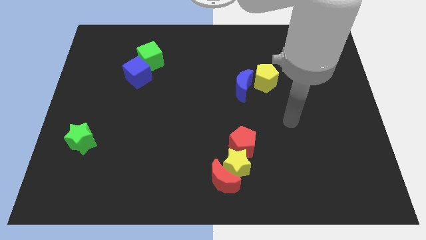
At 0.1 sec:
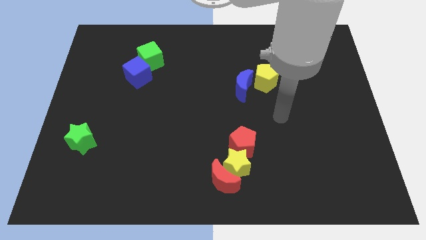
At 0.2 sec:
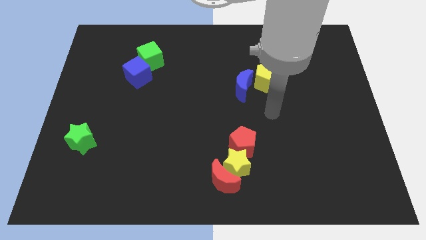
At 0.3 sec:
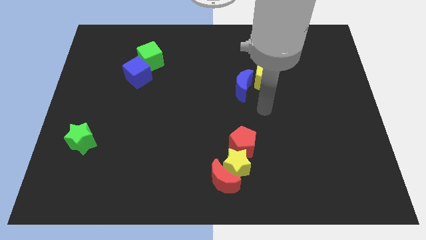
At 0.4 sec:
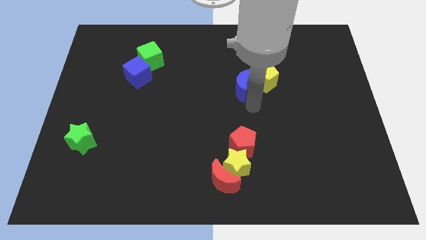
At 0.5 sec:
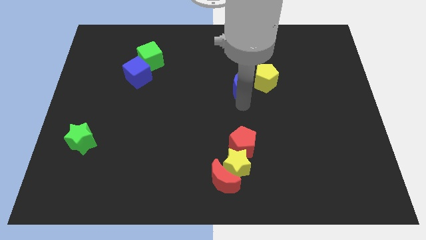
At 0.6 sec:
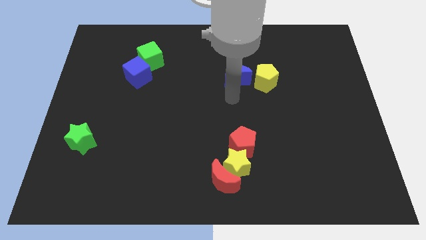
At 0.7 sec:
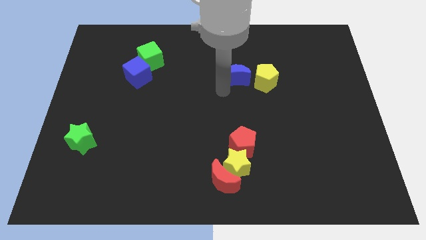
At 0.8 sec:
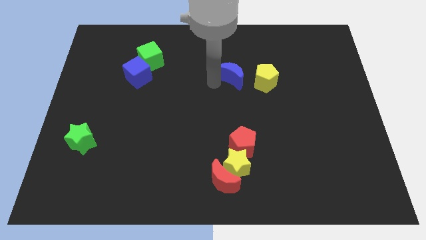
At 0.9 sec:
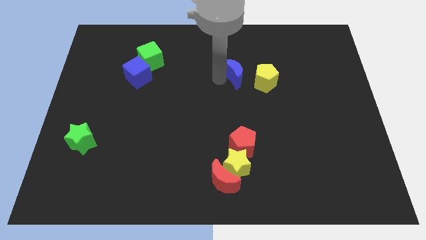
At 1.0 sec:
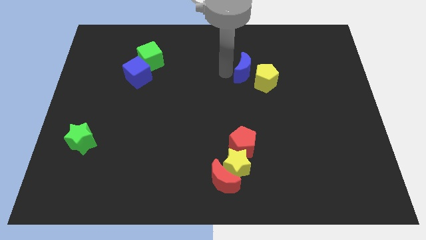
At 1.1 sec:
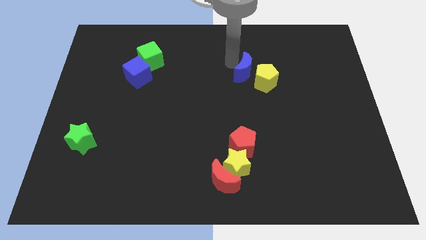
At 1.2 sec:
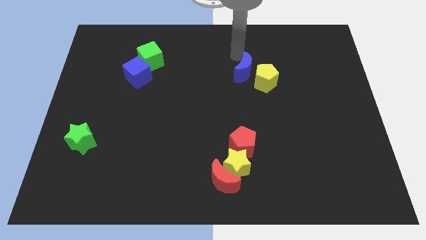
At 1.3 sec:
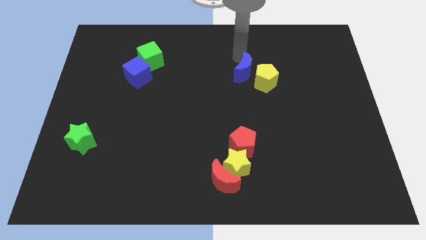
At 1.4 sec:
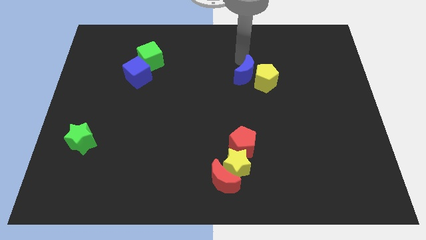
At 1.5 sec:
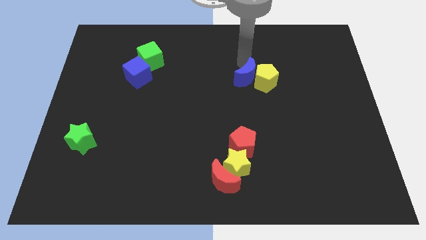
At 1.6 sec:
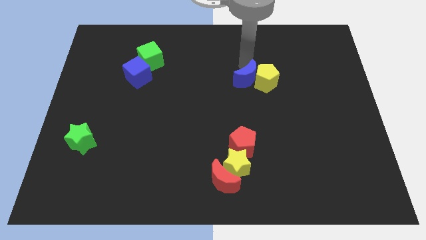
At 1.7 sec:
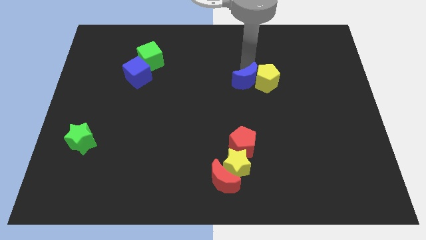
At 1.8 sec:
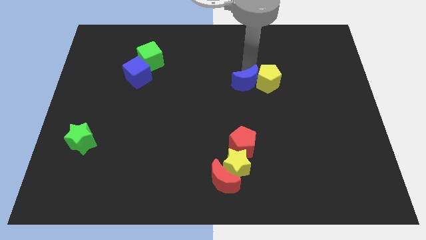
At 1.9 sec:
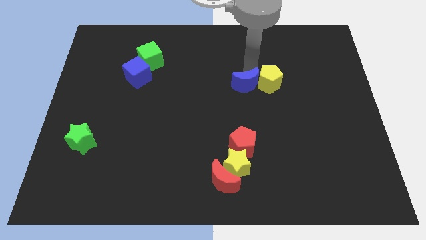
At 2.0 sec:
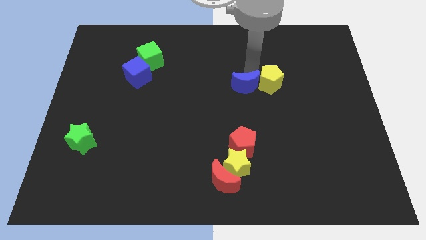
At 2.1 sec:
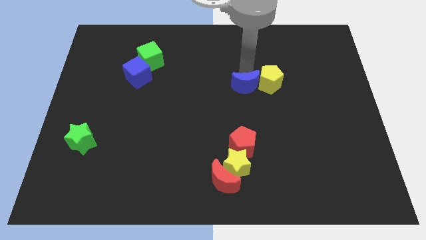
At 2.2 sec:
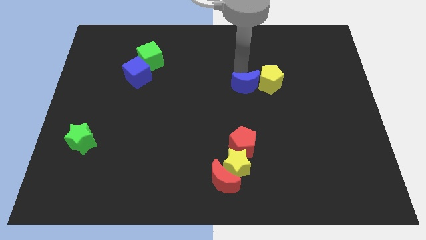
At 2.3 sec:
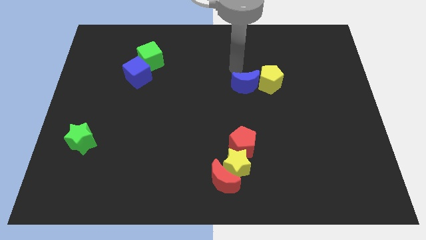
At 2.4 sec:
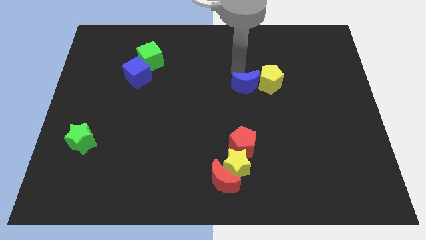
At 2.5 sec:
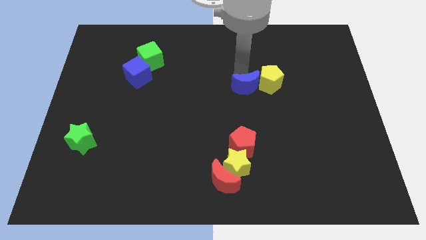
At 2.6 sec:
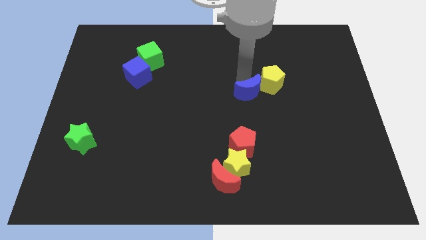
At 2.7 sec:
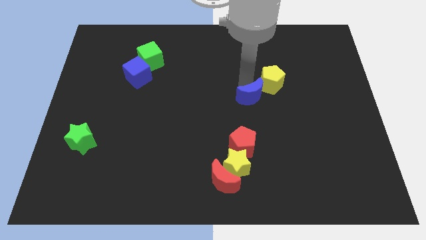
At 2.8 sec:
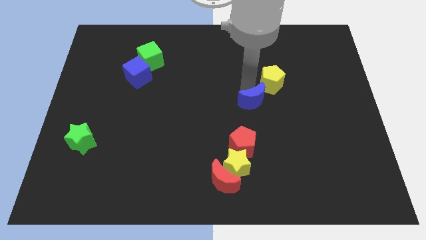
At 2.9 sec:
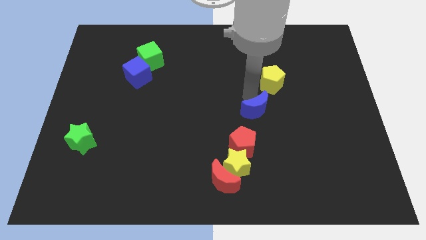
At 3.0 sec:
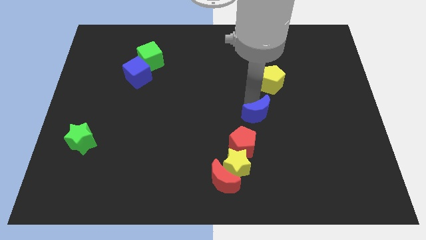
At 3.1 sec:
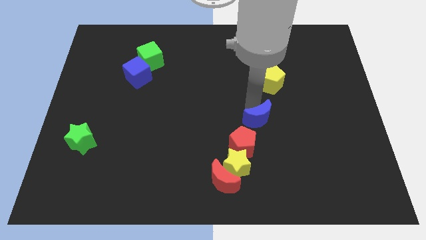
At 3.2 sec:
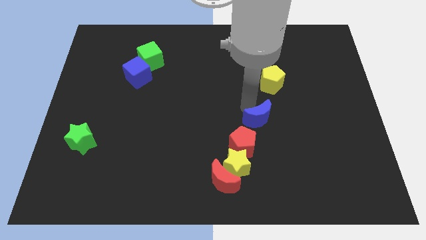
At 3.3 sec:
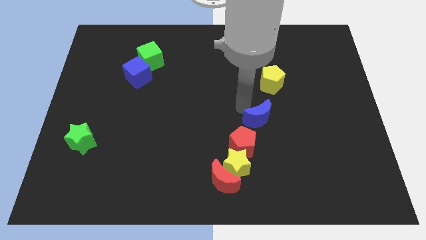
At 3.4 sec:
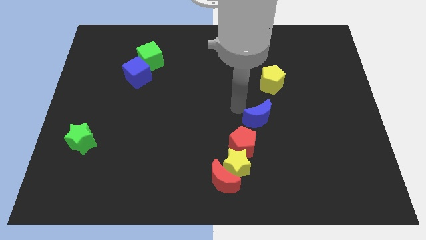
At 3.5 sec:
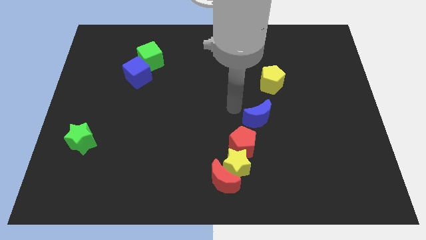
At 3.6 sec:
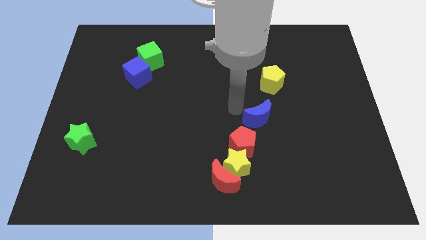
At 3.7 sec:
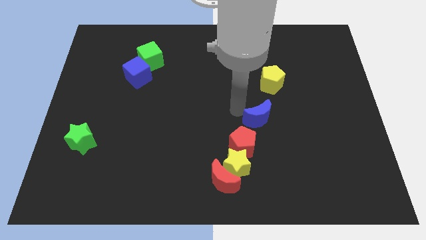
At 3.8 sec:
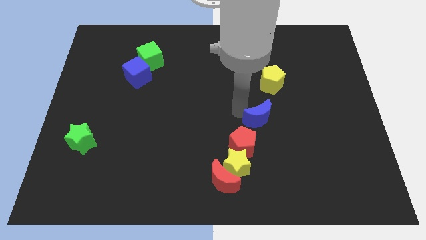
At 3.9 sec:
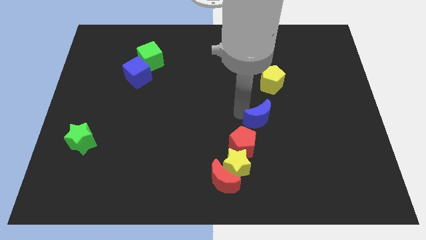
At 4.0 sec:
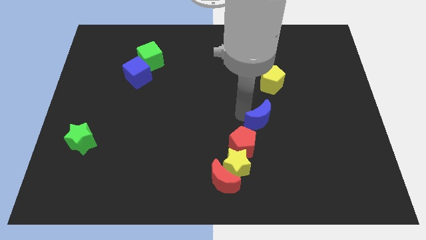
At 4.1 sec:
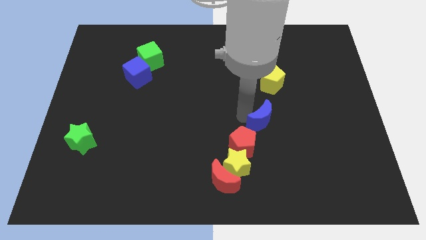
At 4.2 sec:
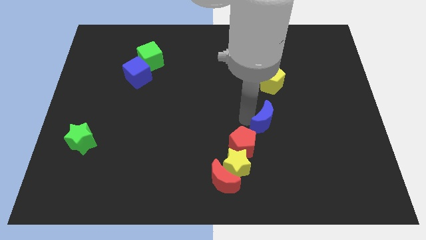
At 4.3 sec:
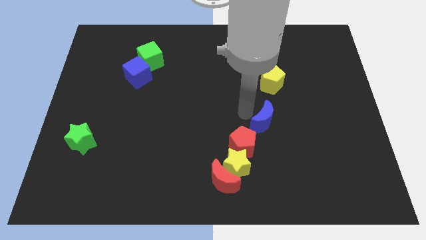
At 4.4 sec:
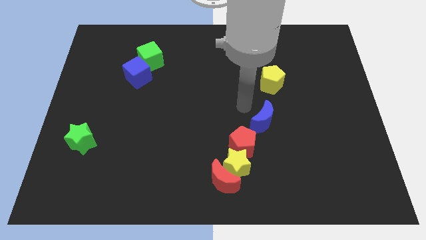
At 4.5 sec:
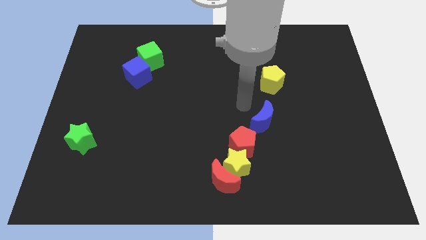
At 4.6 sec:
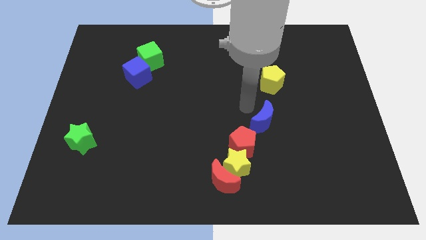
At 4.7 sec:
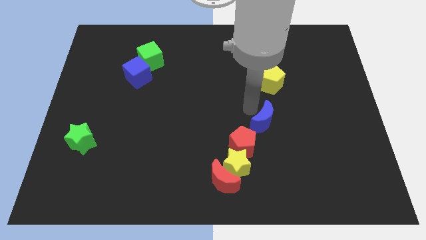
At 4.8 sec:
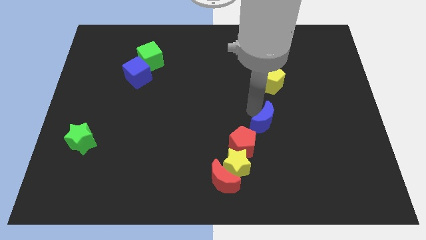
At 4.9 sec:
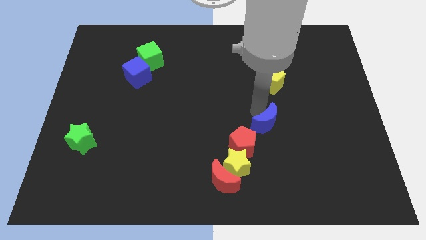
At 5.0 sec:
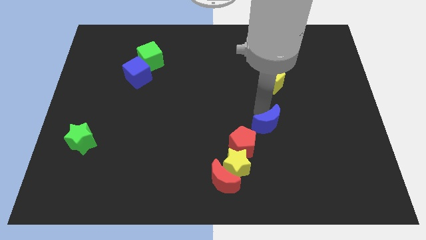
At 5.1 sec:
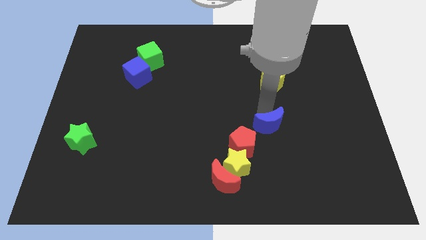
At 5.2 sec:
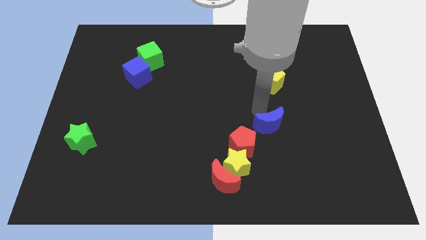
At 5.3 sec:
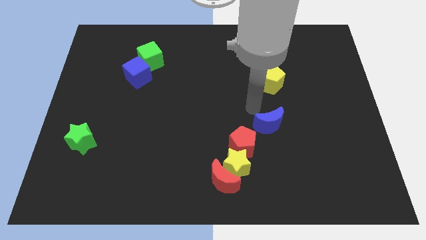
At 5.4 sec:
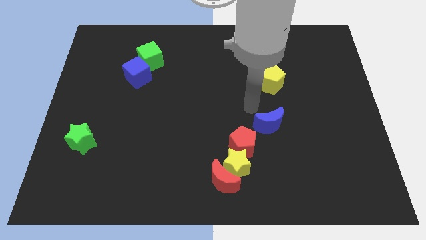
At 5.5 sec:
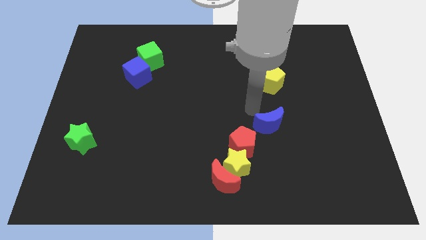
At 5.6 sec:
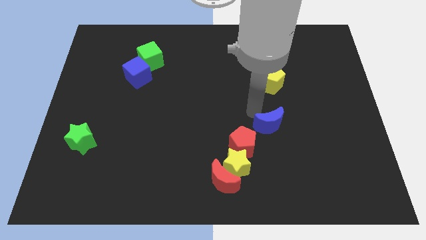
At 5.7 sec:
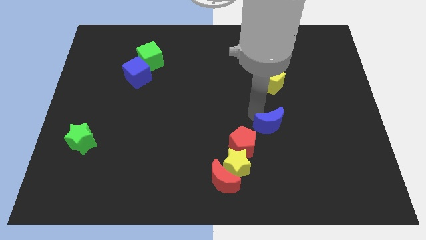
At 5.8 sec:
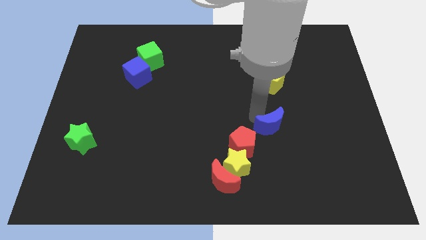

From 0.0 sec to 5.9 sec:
push the blue moon to the right side of the red pentagon
